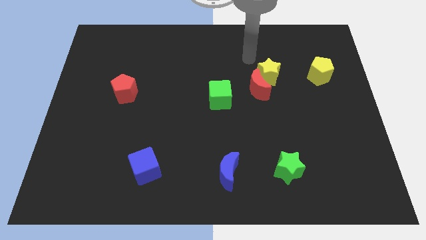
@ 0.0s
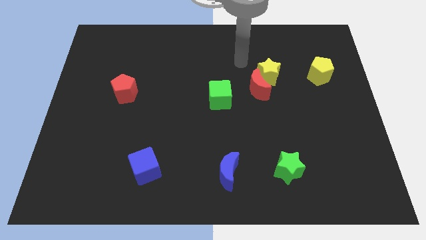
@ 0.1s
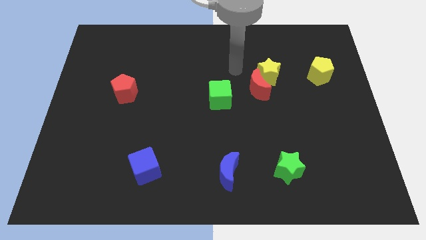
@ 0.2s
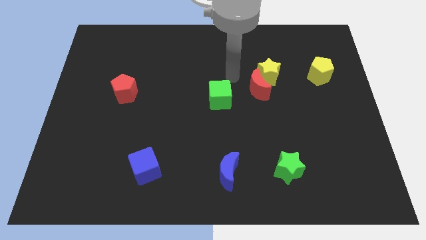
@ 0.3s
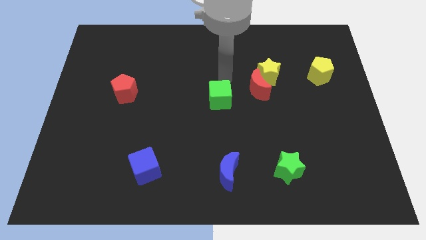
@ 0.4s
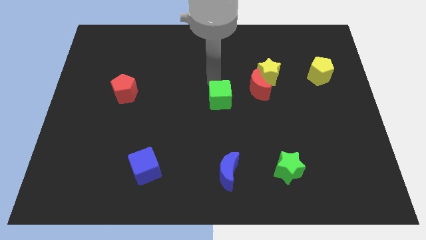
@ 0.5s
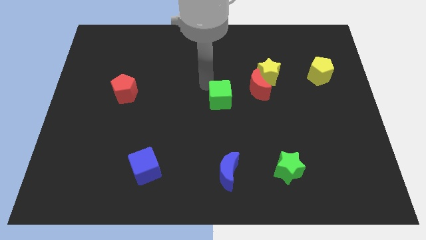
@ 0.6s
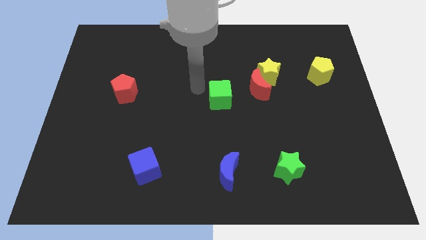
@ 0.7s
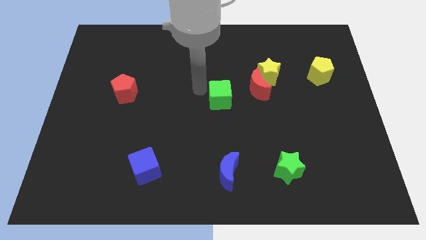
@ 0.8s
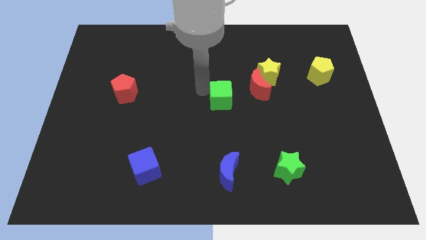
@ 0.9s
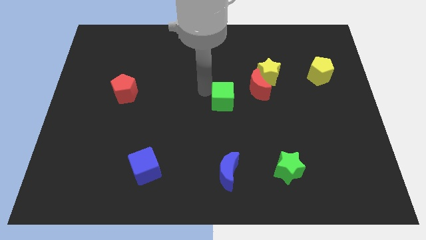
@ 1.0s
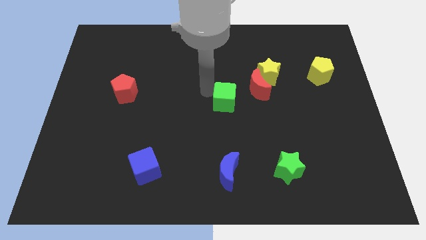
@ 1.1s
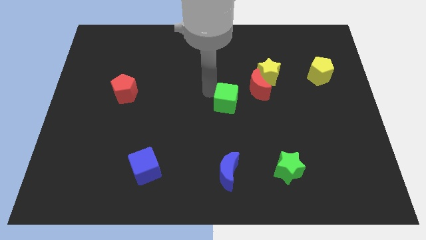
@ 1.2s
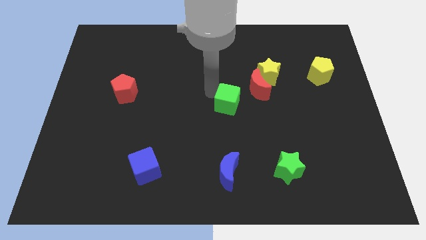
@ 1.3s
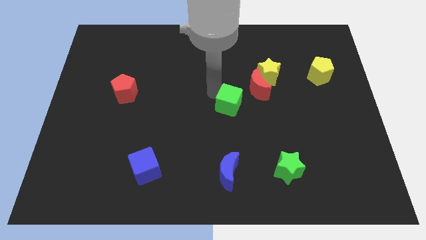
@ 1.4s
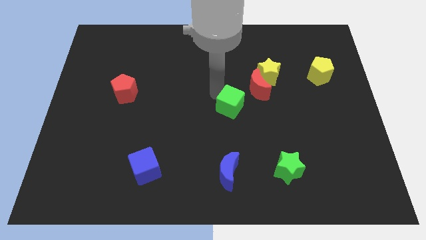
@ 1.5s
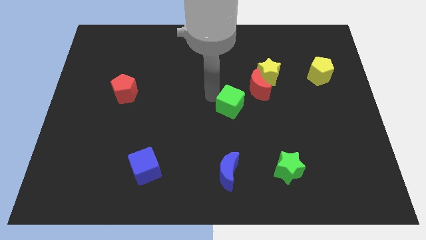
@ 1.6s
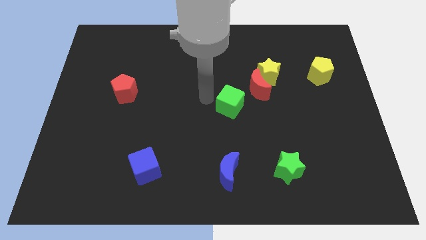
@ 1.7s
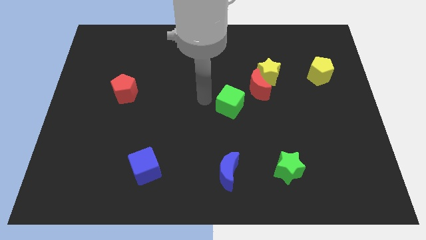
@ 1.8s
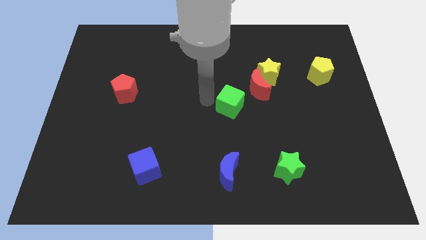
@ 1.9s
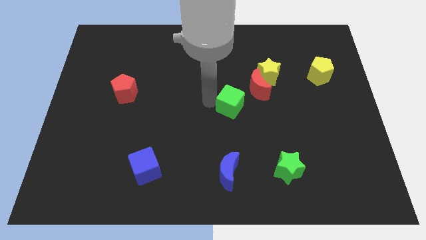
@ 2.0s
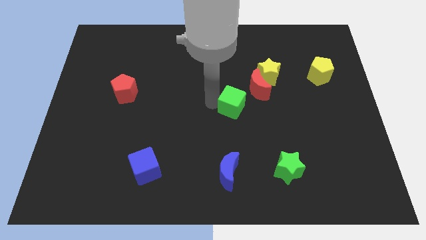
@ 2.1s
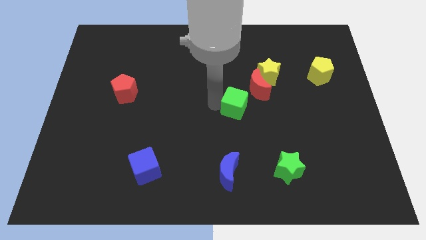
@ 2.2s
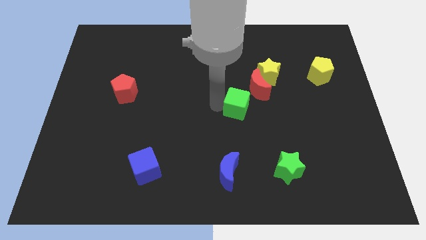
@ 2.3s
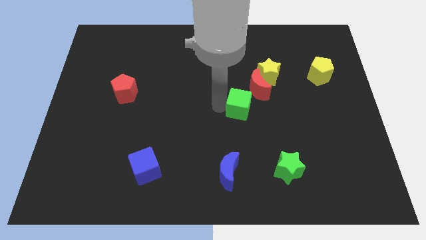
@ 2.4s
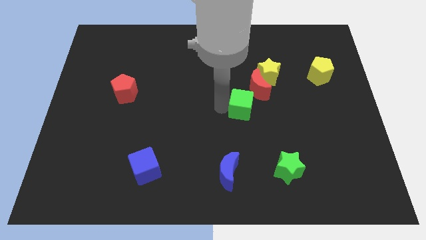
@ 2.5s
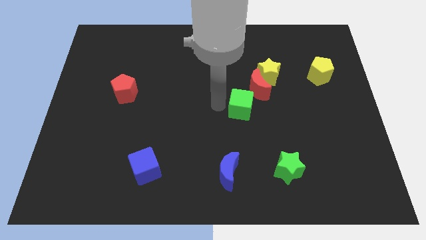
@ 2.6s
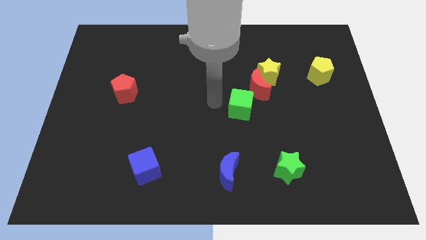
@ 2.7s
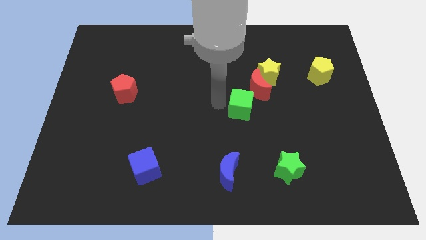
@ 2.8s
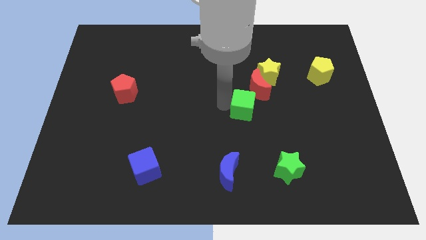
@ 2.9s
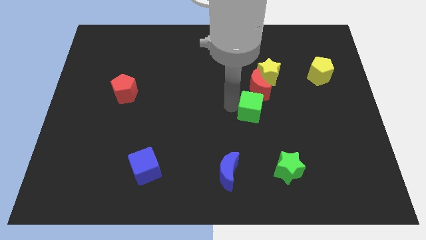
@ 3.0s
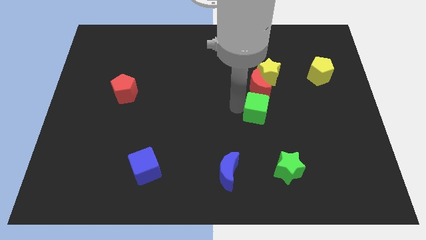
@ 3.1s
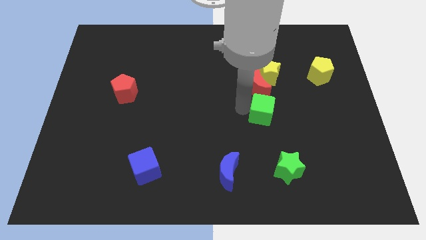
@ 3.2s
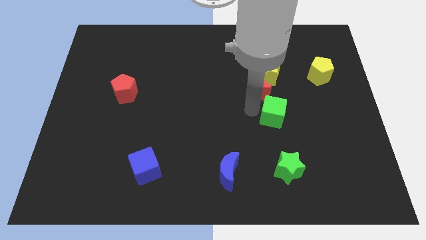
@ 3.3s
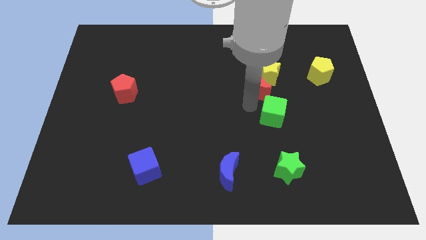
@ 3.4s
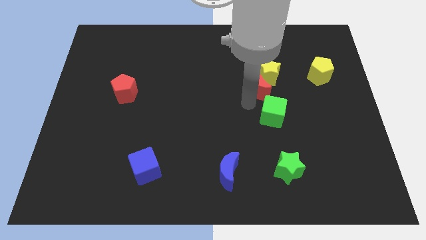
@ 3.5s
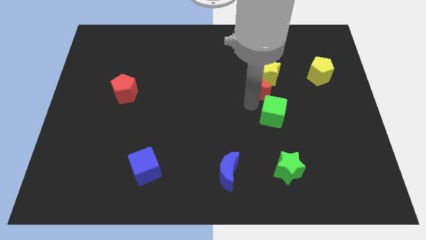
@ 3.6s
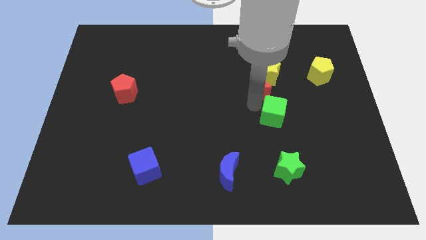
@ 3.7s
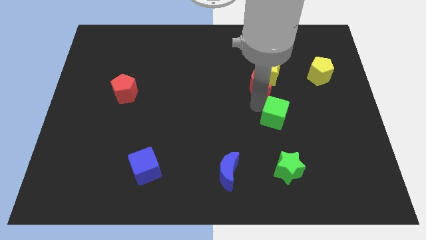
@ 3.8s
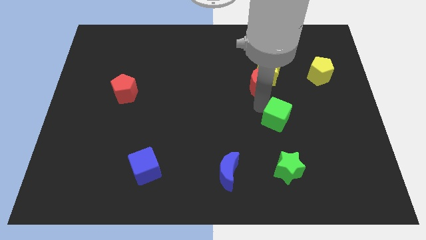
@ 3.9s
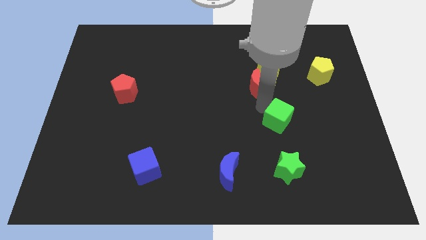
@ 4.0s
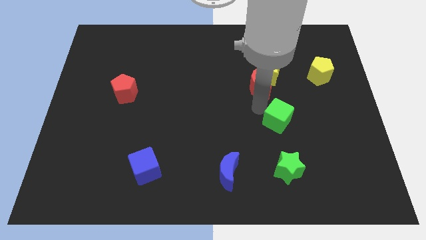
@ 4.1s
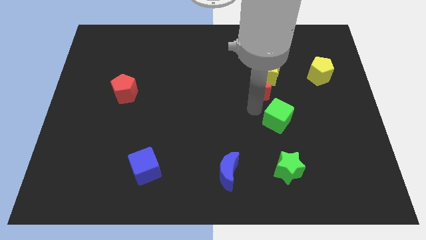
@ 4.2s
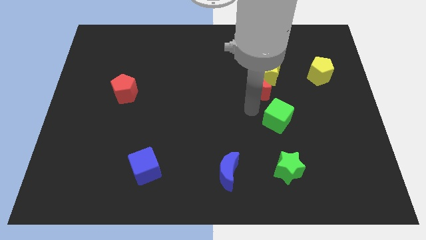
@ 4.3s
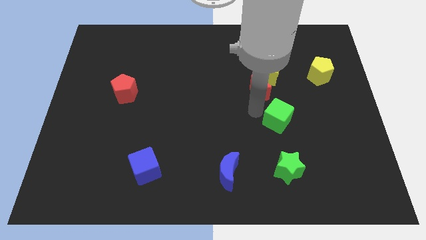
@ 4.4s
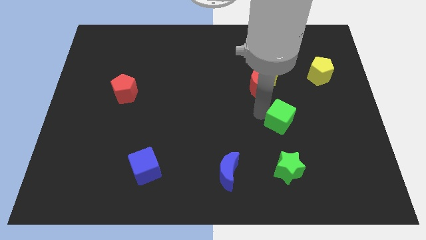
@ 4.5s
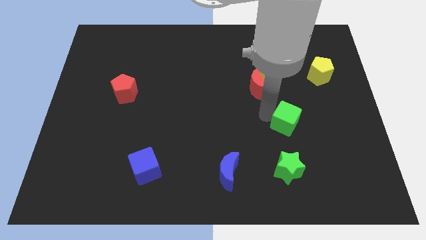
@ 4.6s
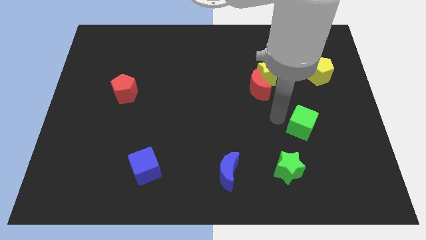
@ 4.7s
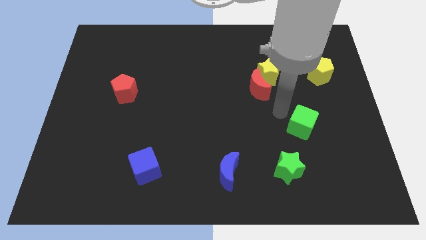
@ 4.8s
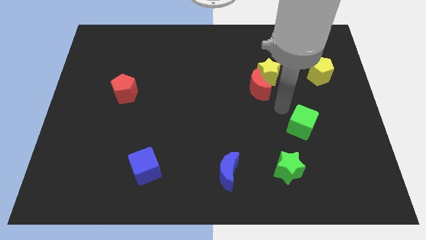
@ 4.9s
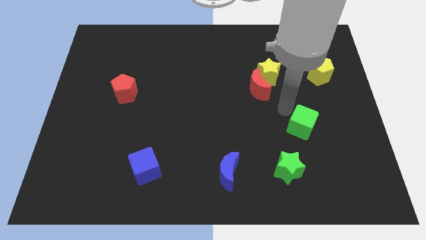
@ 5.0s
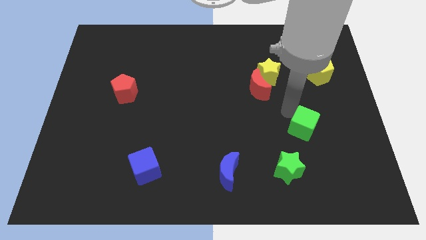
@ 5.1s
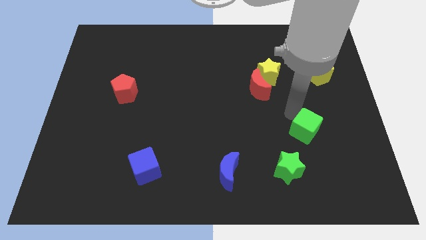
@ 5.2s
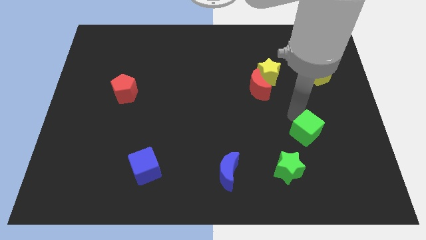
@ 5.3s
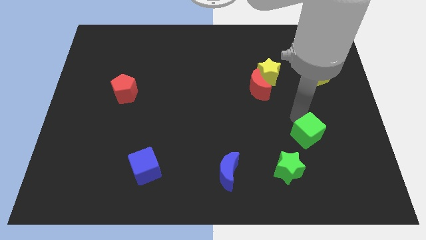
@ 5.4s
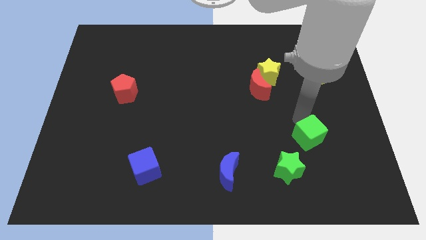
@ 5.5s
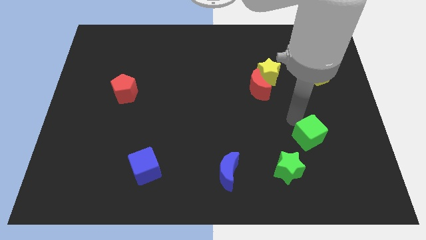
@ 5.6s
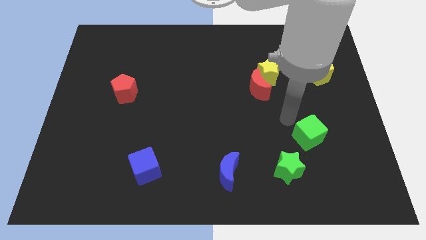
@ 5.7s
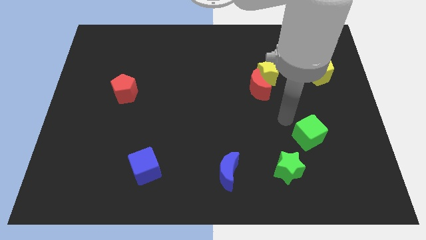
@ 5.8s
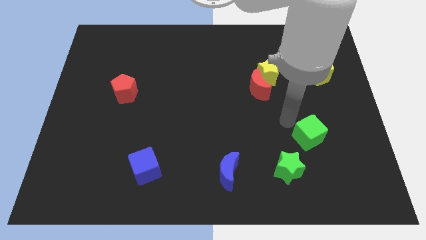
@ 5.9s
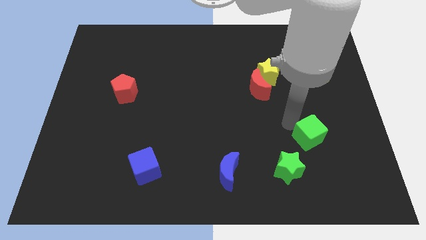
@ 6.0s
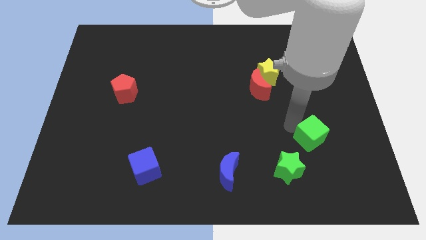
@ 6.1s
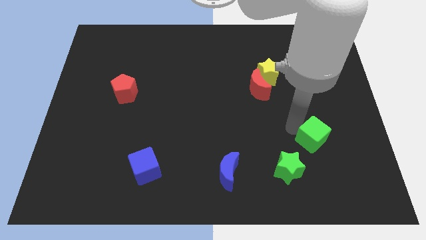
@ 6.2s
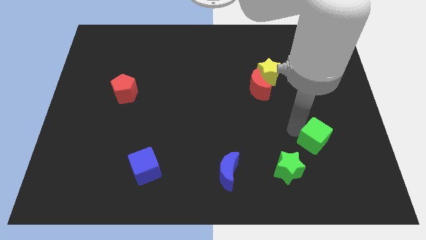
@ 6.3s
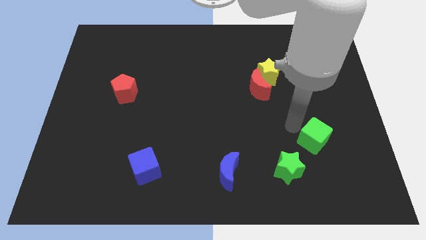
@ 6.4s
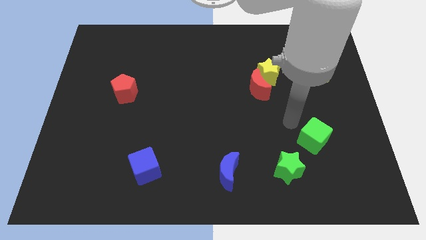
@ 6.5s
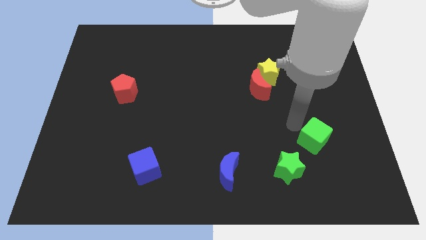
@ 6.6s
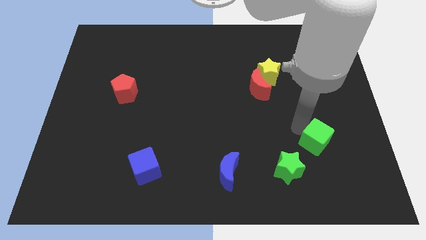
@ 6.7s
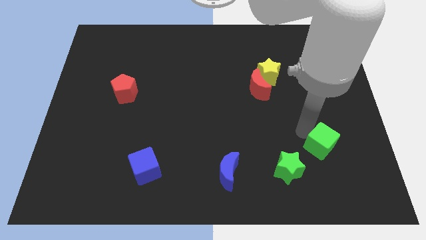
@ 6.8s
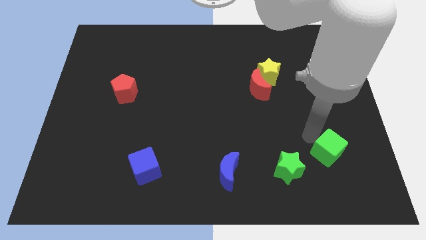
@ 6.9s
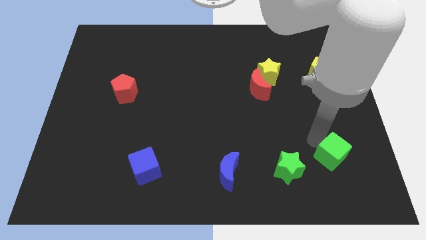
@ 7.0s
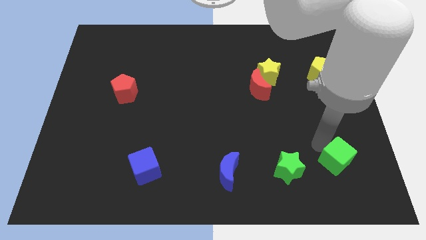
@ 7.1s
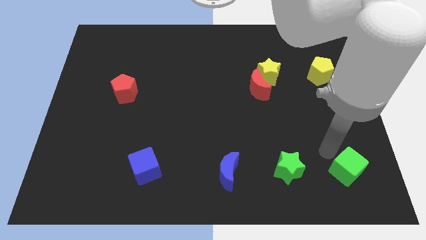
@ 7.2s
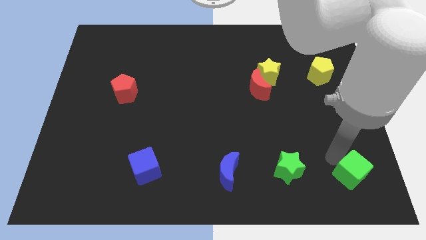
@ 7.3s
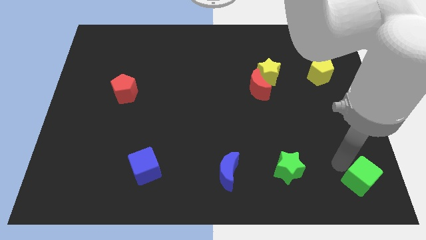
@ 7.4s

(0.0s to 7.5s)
put the green cube to the bottom right corner
